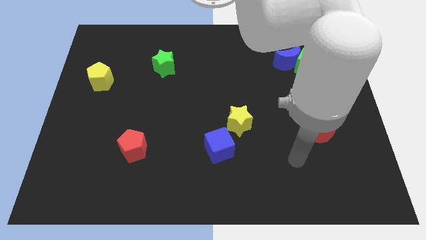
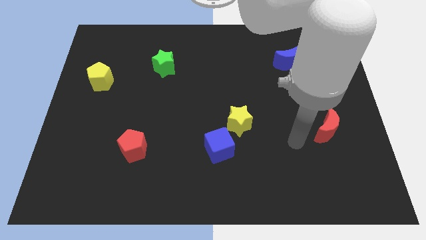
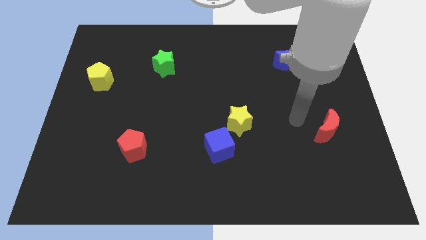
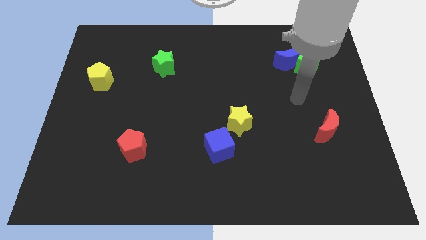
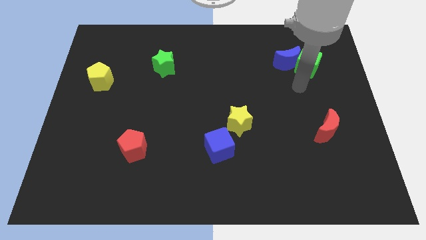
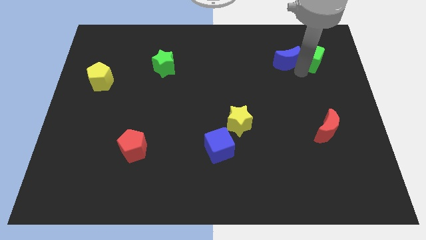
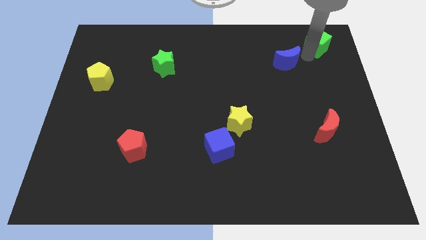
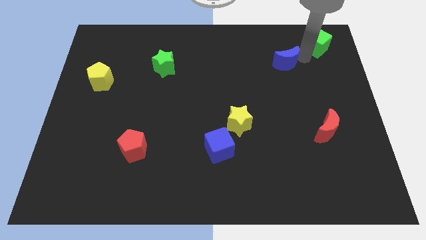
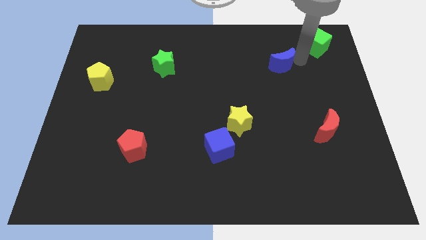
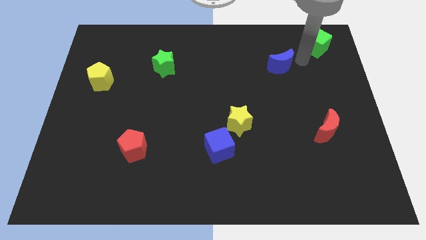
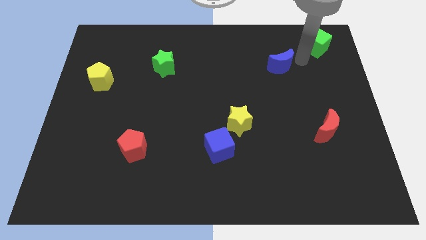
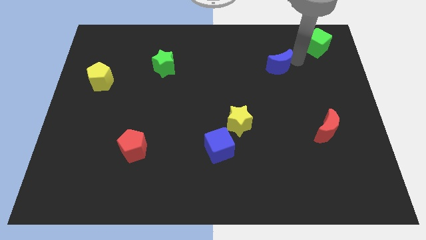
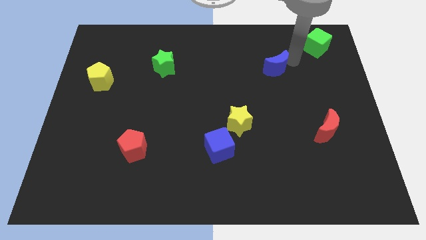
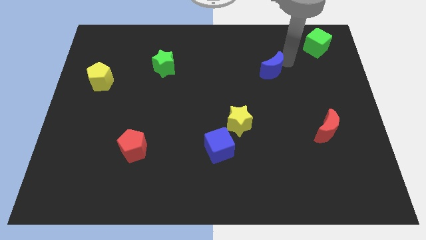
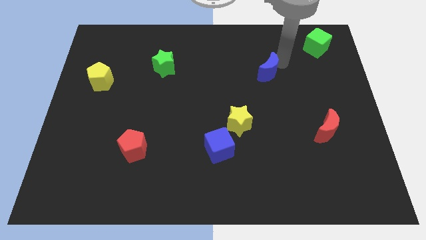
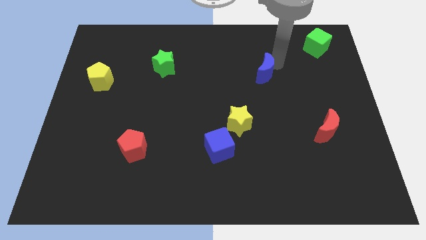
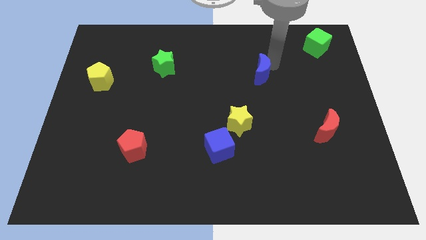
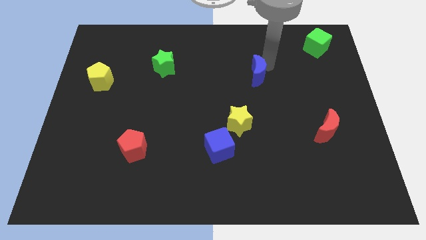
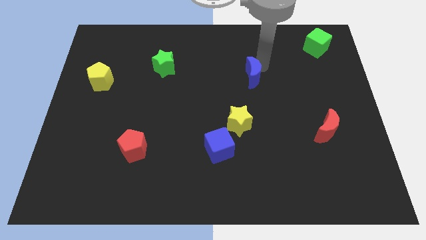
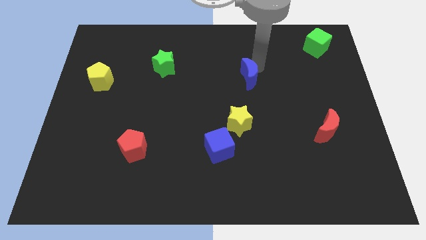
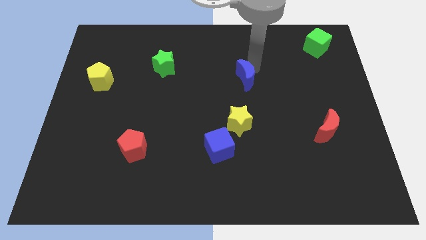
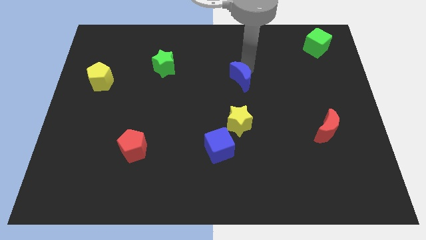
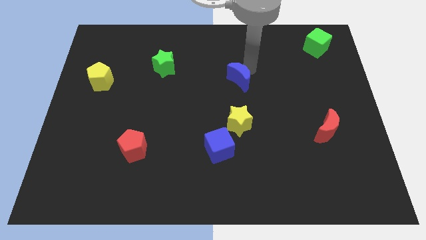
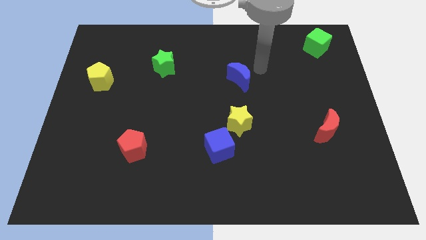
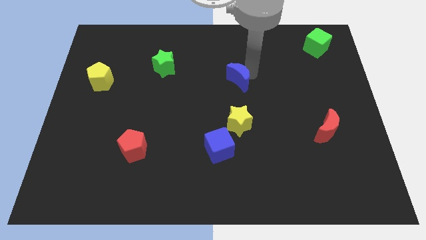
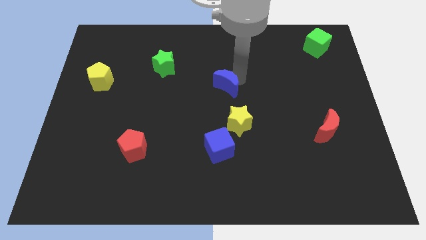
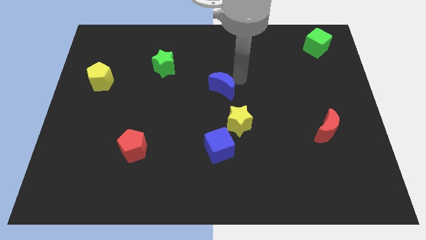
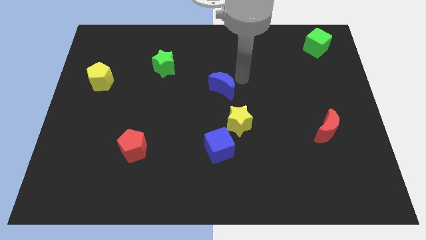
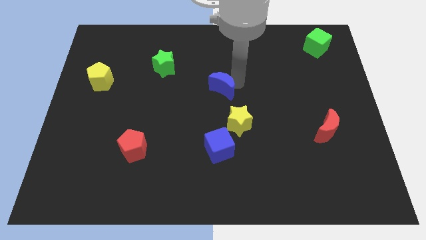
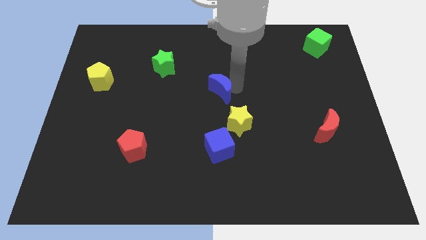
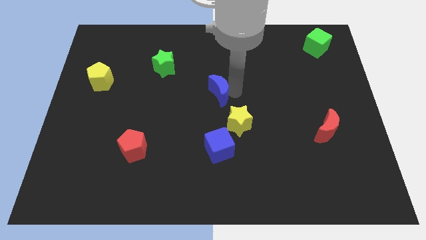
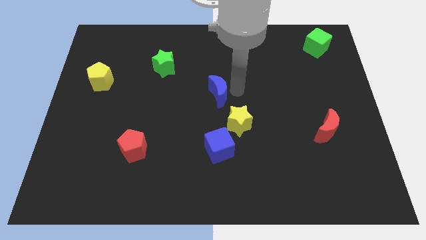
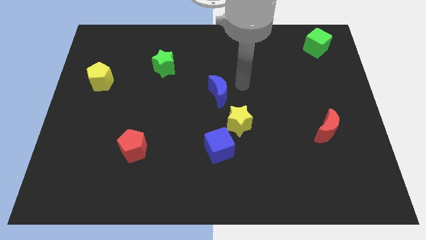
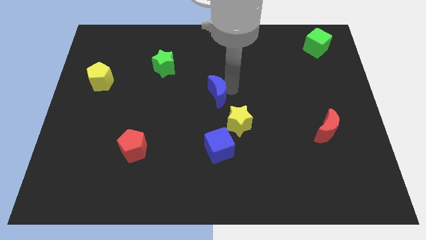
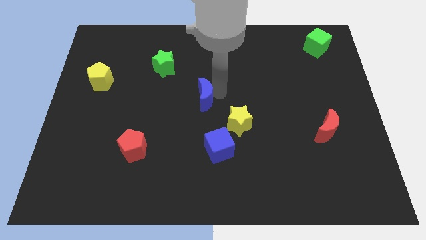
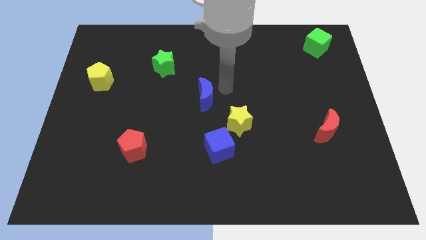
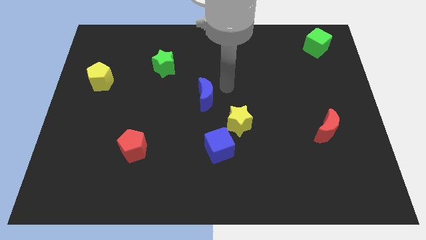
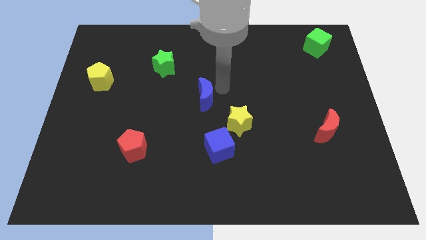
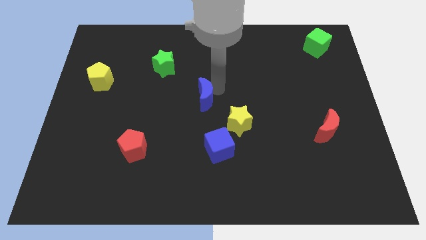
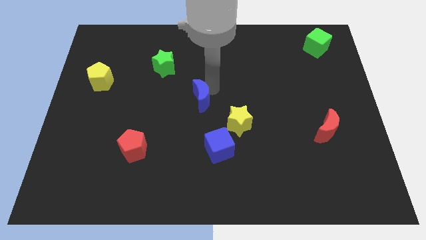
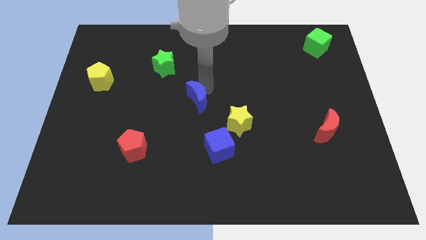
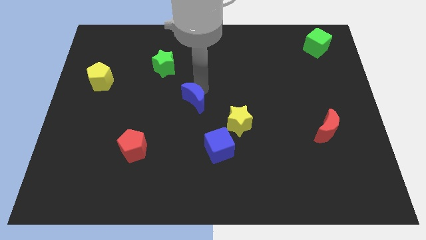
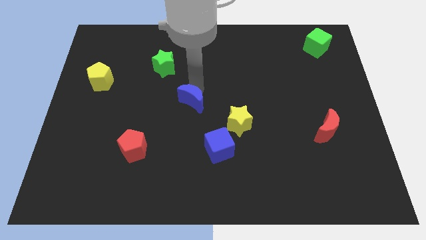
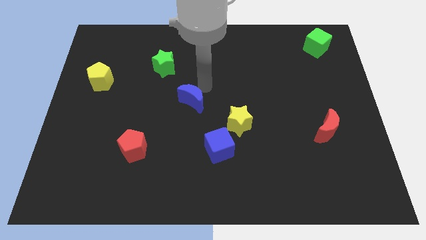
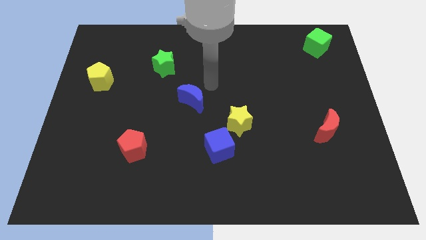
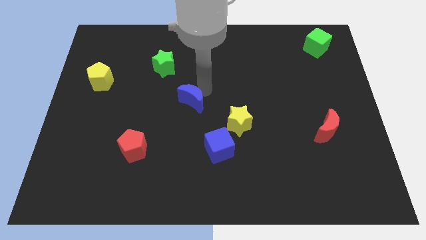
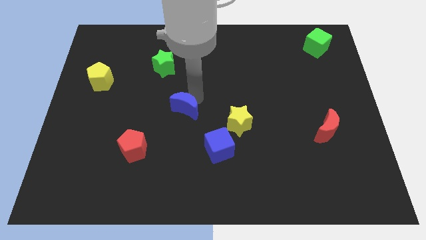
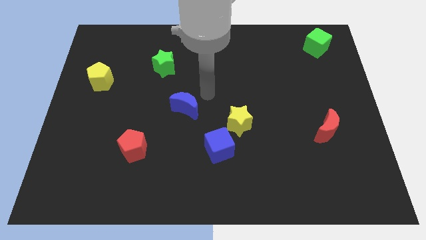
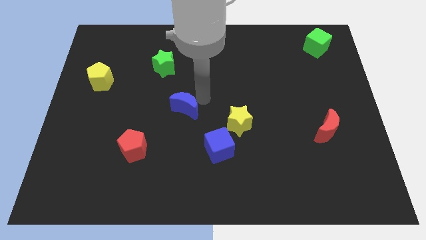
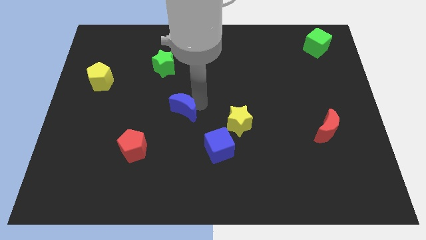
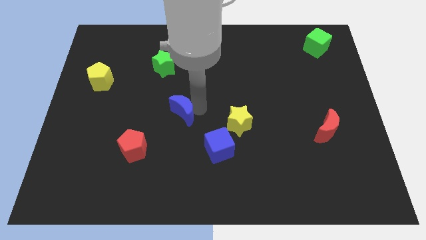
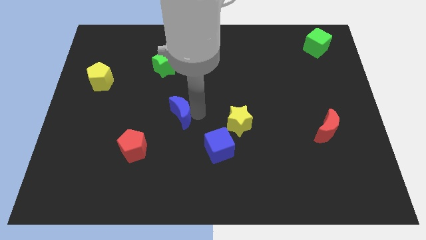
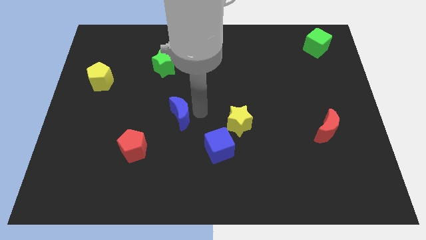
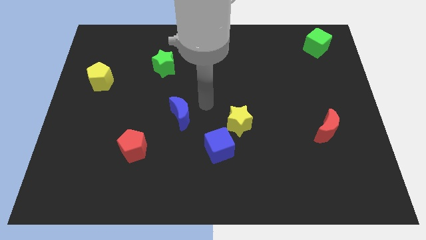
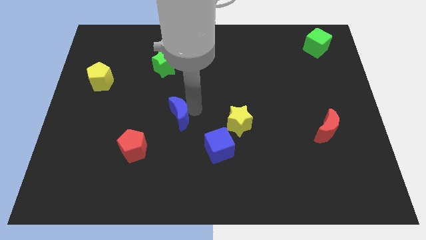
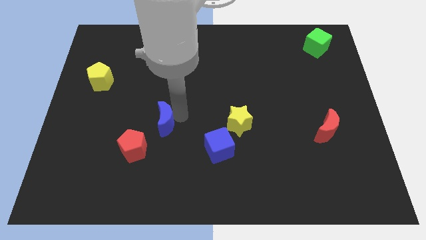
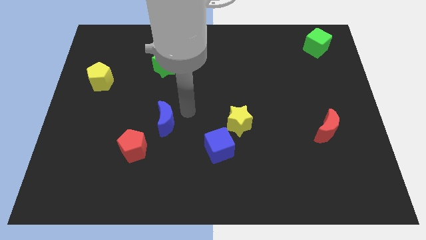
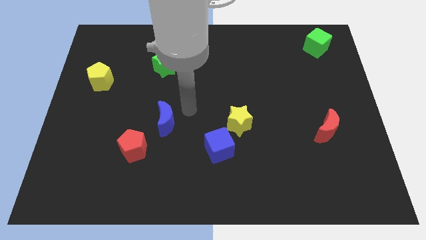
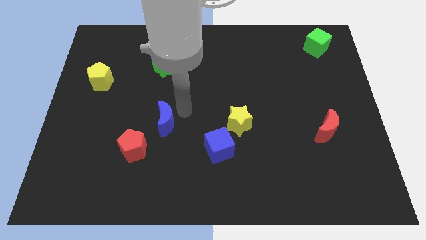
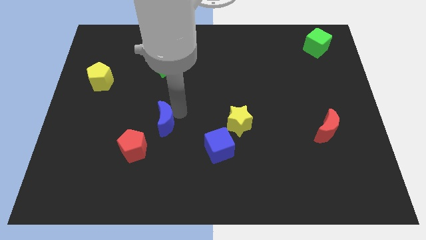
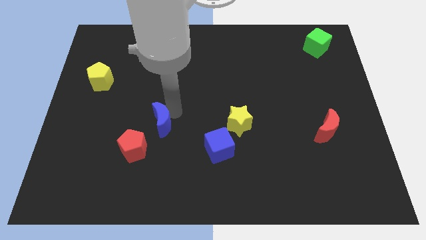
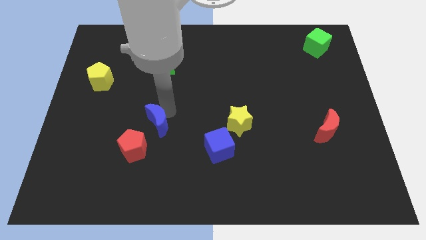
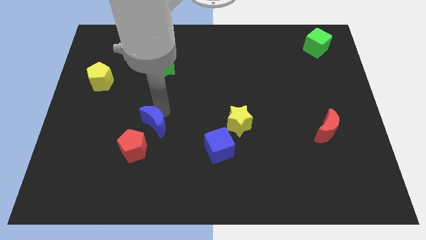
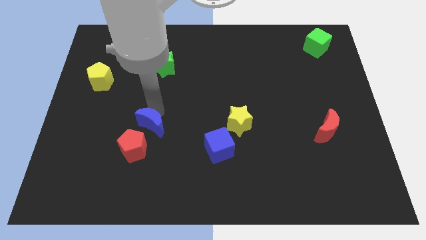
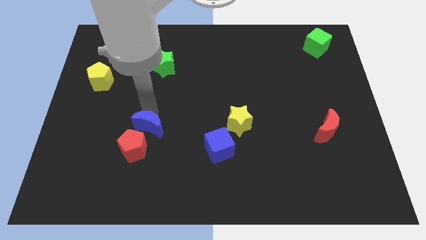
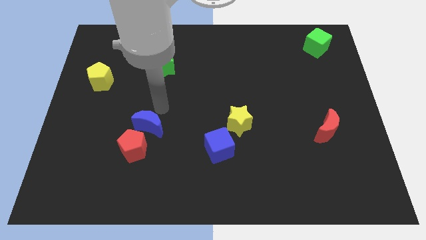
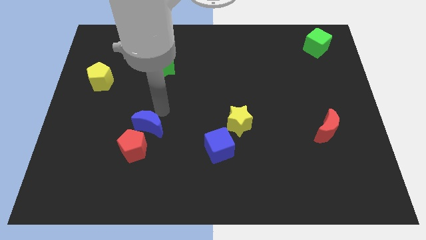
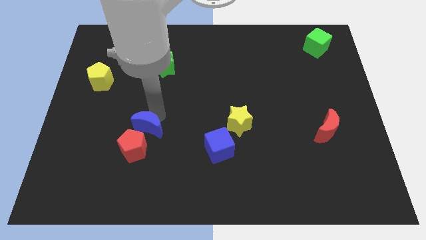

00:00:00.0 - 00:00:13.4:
put the blue moon close to the red pentagon
